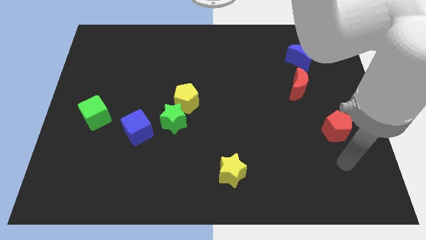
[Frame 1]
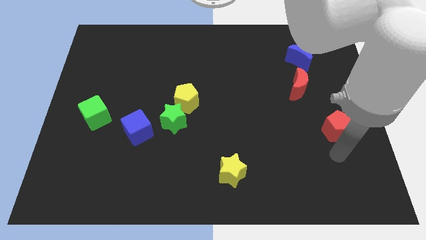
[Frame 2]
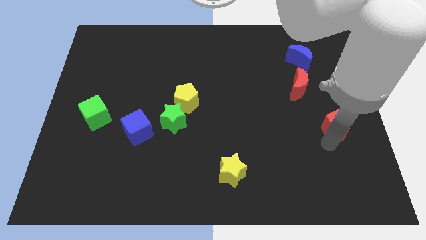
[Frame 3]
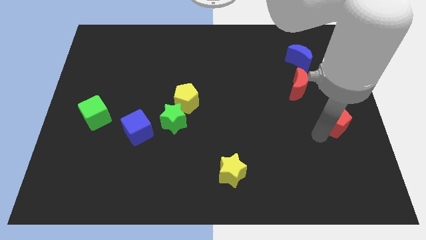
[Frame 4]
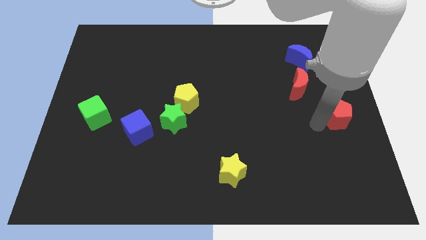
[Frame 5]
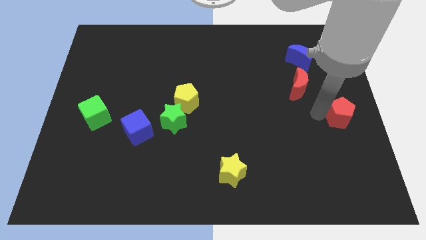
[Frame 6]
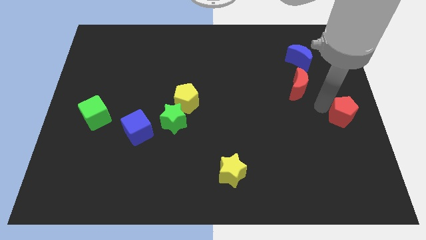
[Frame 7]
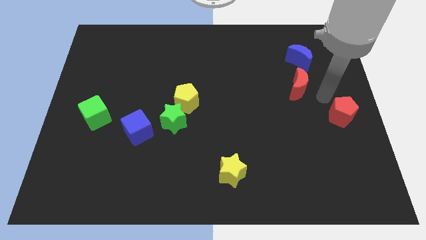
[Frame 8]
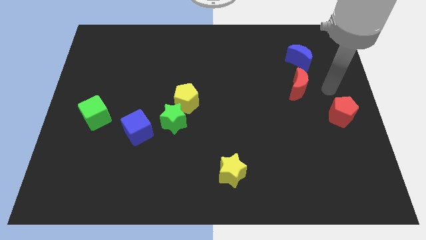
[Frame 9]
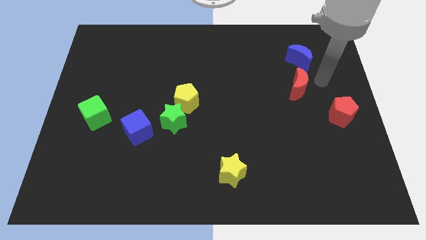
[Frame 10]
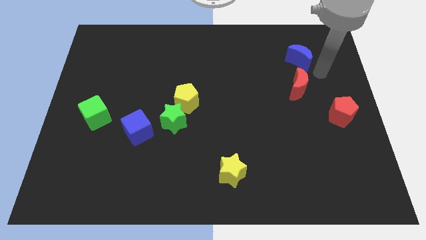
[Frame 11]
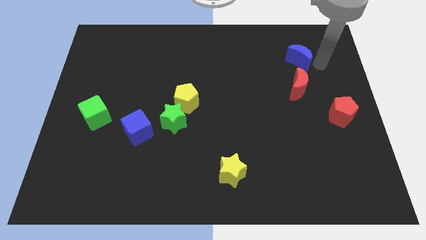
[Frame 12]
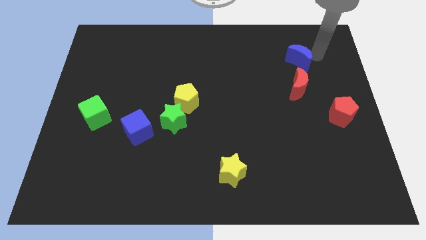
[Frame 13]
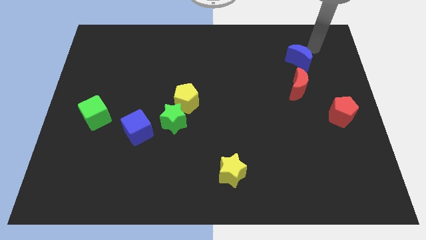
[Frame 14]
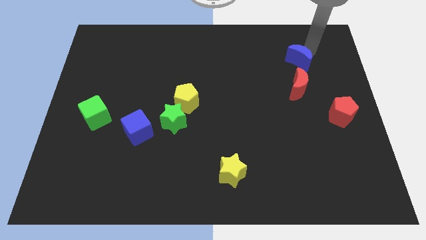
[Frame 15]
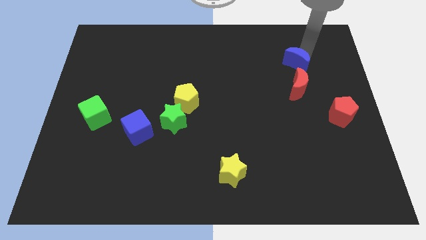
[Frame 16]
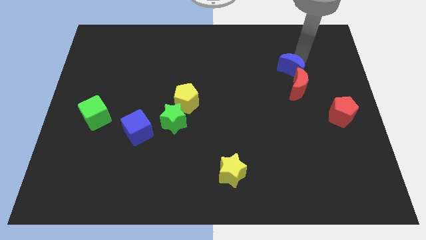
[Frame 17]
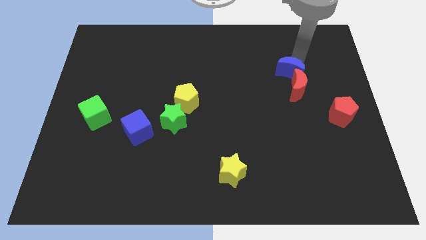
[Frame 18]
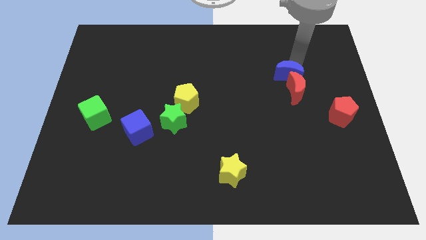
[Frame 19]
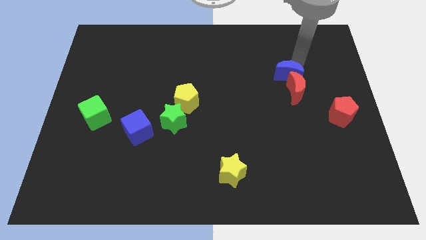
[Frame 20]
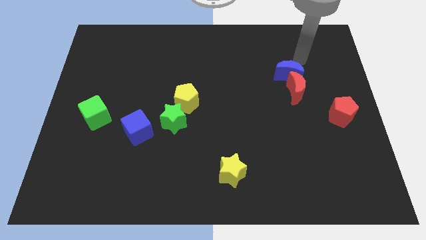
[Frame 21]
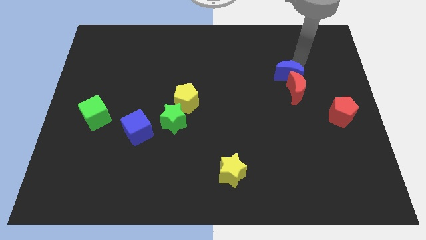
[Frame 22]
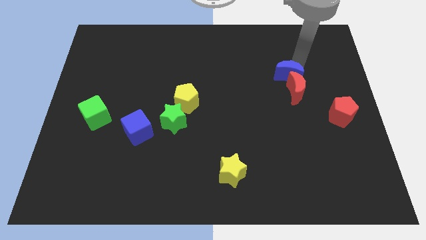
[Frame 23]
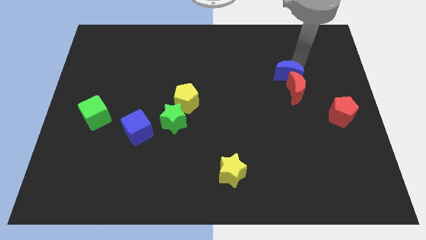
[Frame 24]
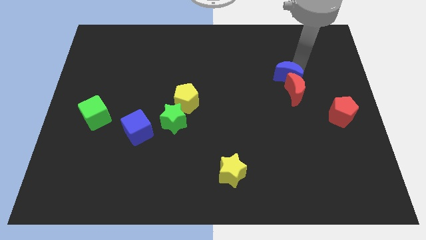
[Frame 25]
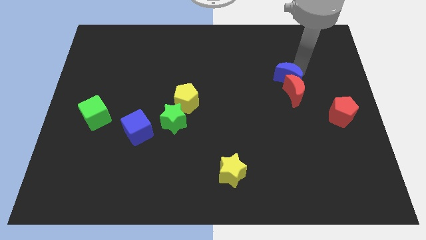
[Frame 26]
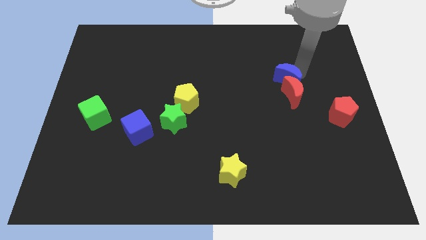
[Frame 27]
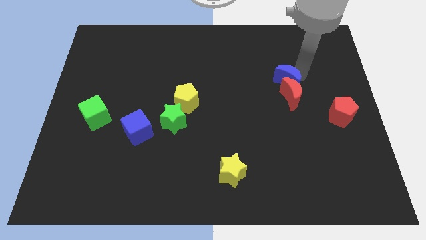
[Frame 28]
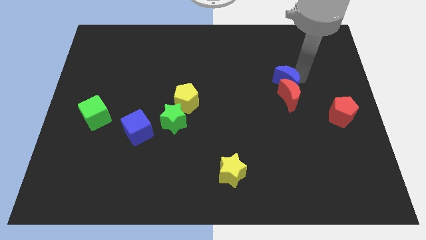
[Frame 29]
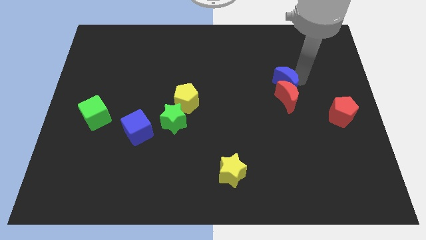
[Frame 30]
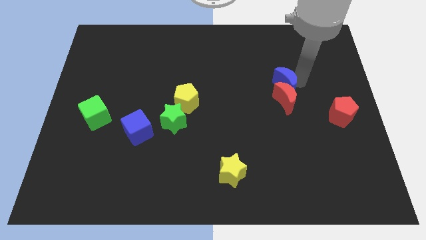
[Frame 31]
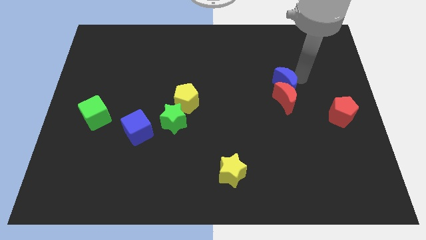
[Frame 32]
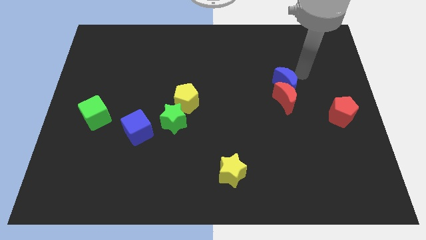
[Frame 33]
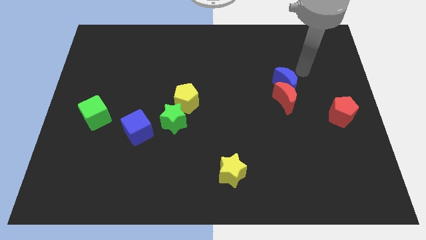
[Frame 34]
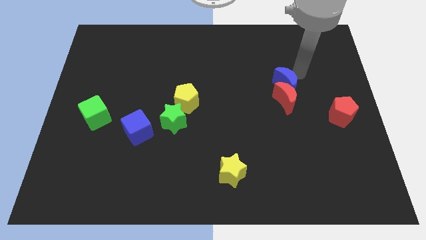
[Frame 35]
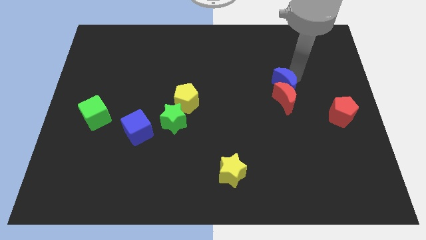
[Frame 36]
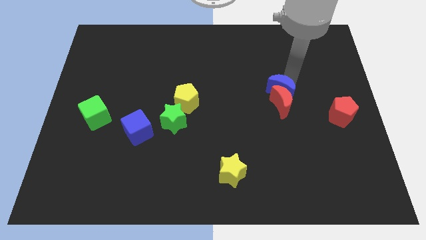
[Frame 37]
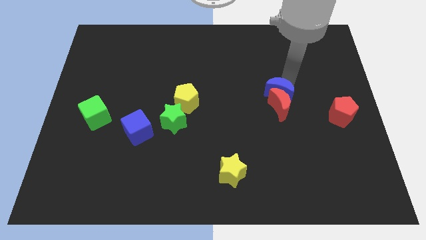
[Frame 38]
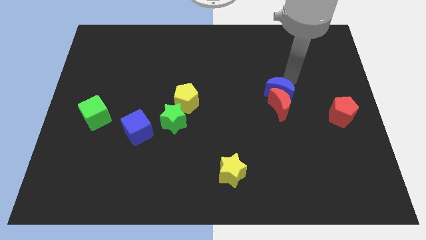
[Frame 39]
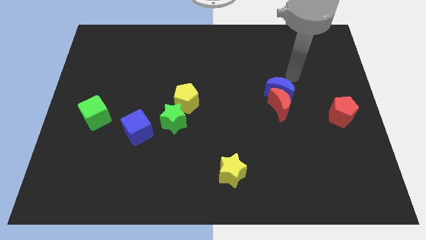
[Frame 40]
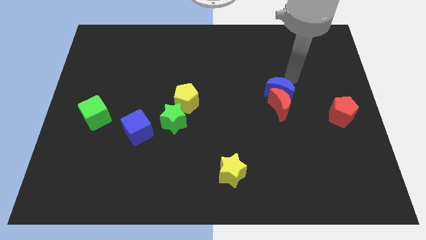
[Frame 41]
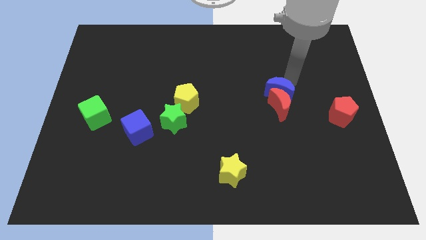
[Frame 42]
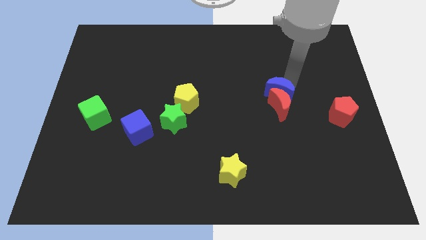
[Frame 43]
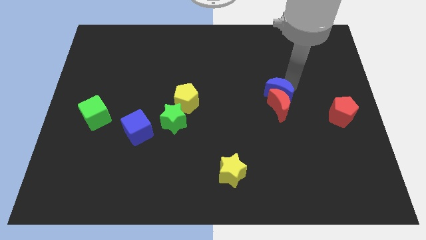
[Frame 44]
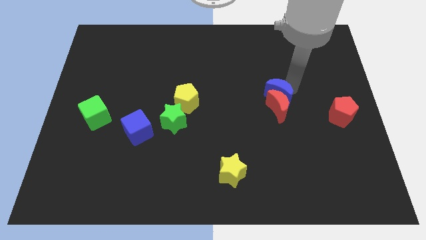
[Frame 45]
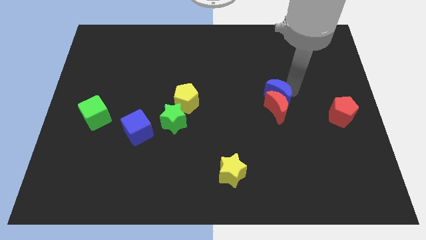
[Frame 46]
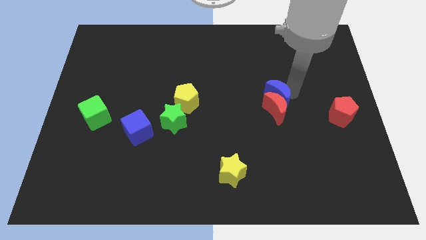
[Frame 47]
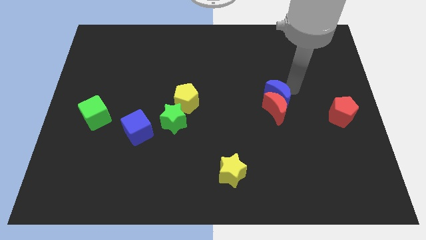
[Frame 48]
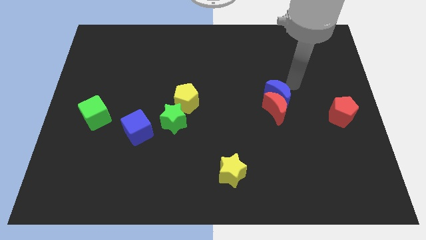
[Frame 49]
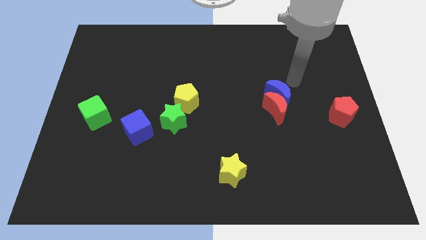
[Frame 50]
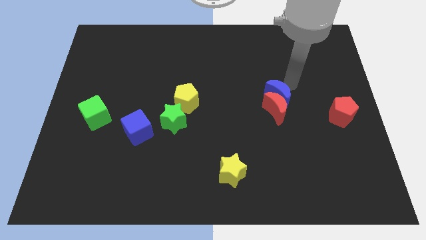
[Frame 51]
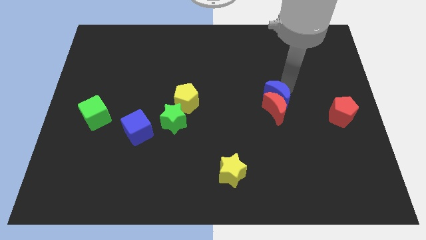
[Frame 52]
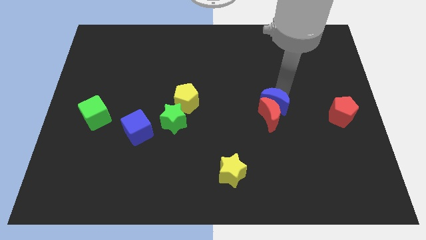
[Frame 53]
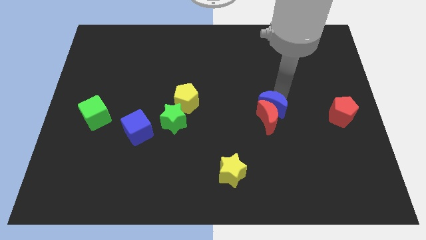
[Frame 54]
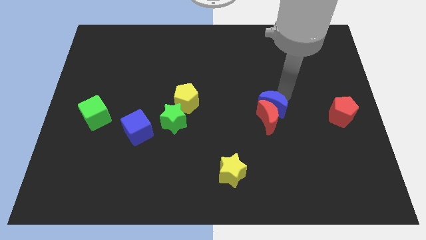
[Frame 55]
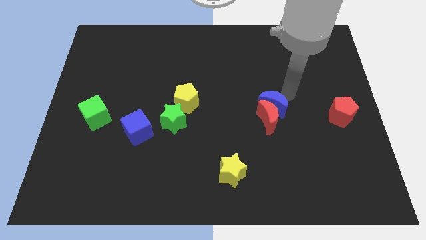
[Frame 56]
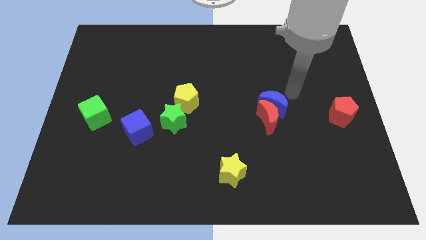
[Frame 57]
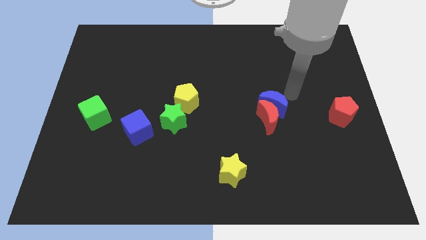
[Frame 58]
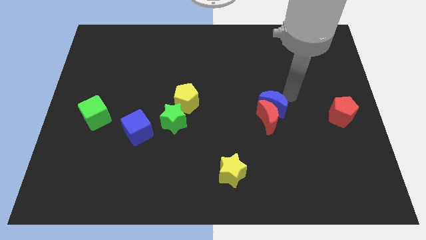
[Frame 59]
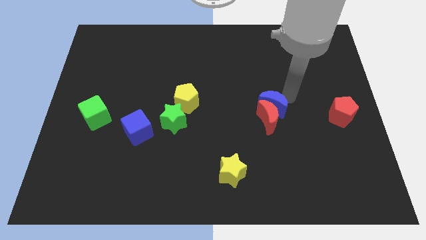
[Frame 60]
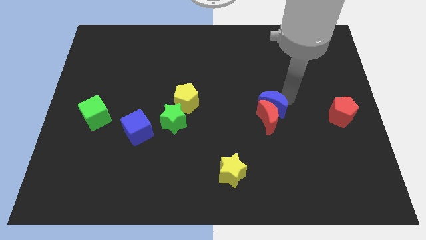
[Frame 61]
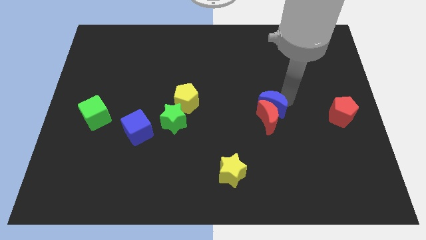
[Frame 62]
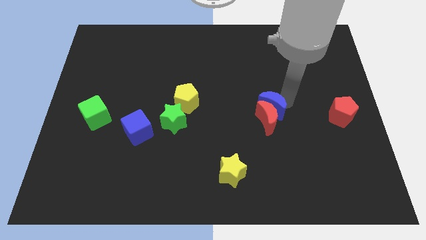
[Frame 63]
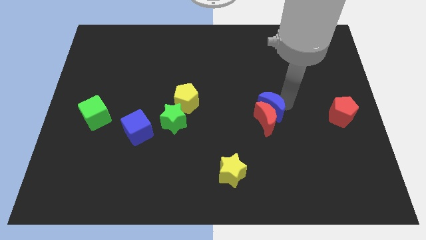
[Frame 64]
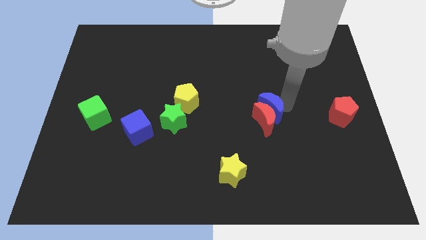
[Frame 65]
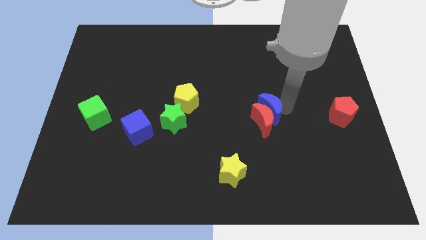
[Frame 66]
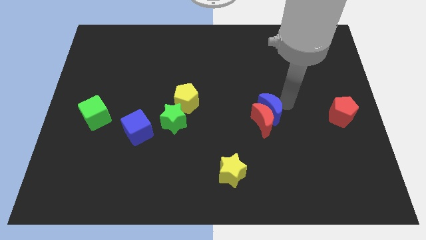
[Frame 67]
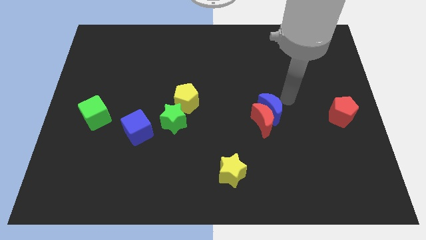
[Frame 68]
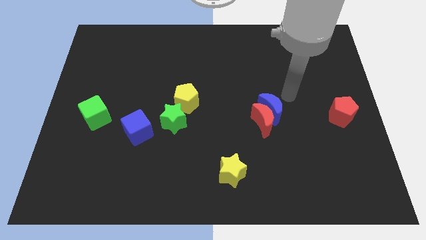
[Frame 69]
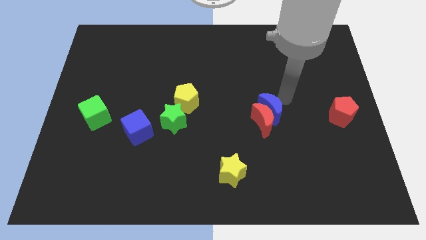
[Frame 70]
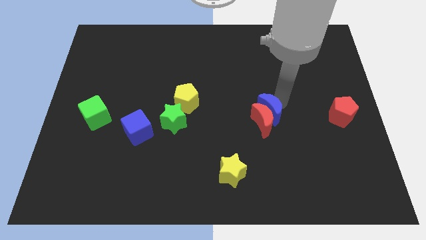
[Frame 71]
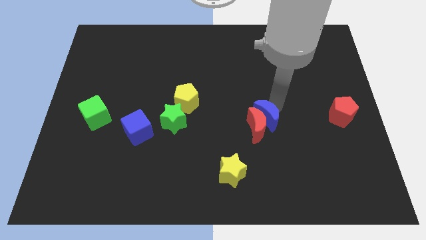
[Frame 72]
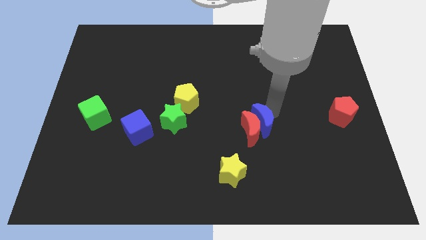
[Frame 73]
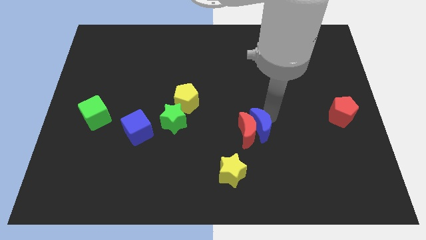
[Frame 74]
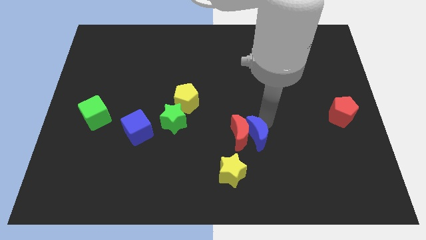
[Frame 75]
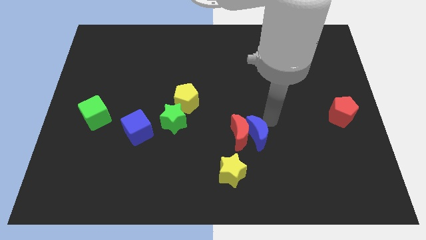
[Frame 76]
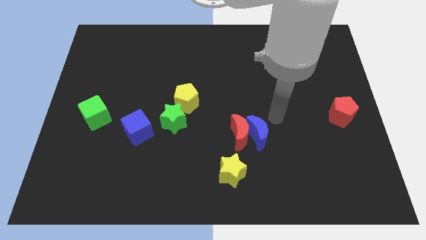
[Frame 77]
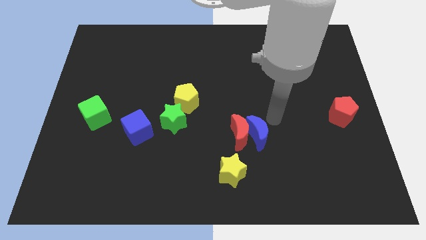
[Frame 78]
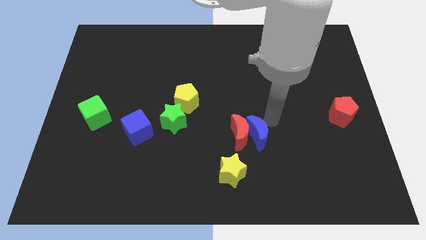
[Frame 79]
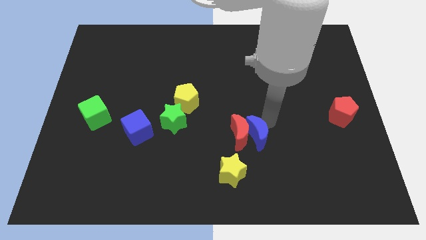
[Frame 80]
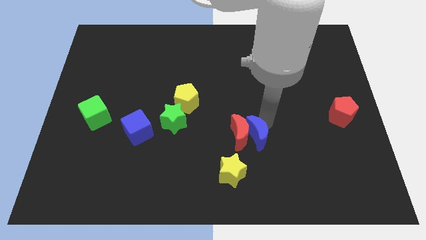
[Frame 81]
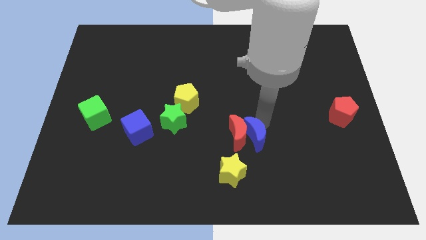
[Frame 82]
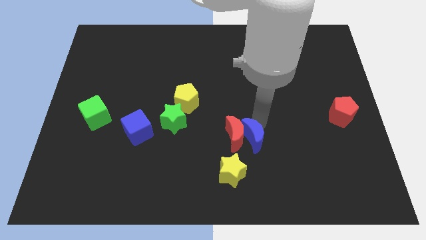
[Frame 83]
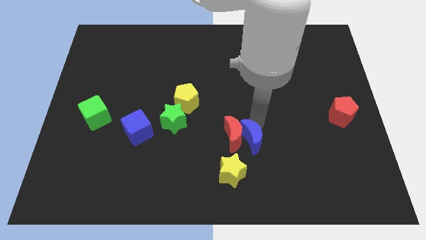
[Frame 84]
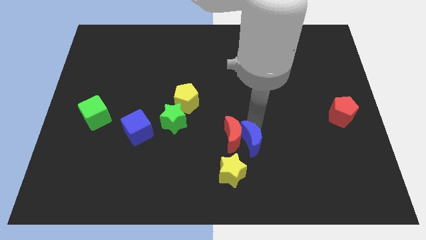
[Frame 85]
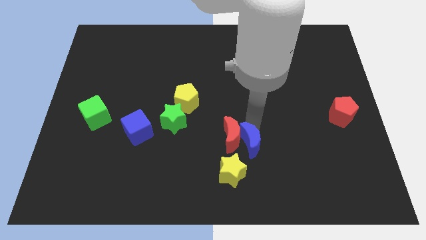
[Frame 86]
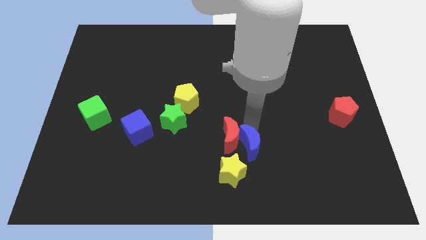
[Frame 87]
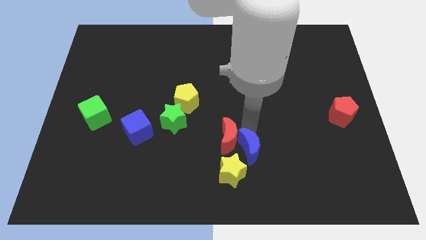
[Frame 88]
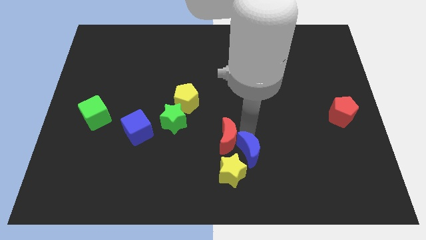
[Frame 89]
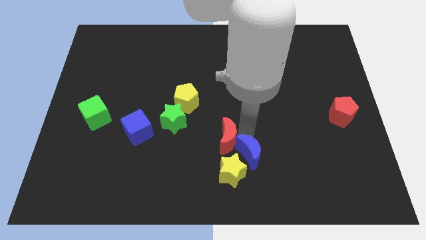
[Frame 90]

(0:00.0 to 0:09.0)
slide the blue moon towards the yellow star
